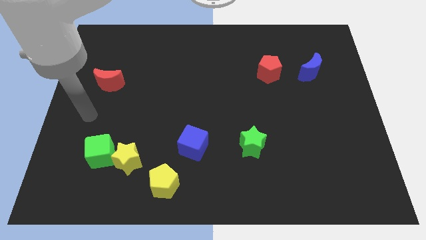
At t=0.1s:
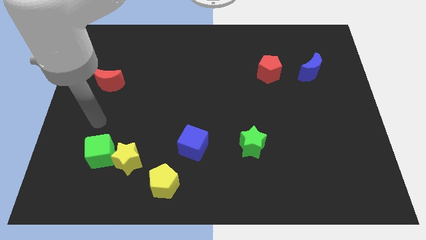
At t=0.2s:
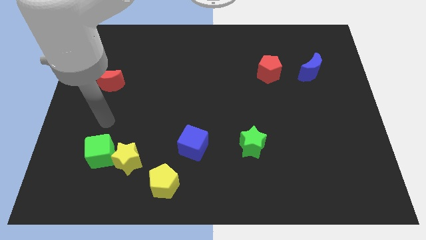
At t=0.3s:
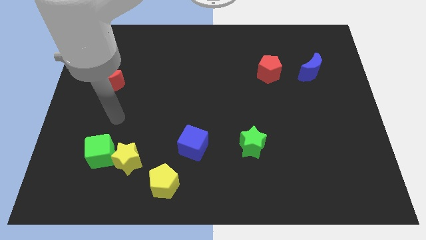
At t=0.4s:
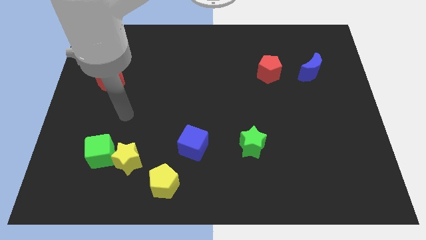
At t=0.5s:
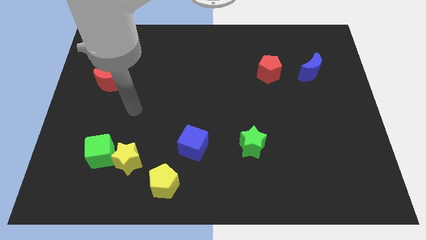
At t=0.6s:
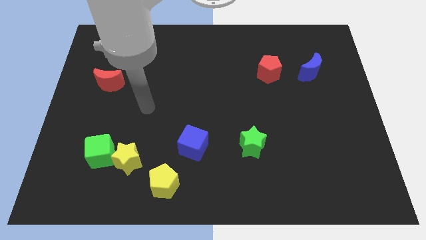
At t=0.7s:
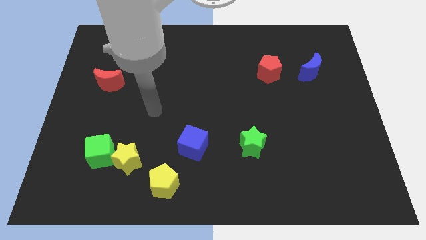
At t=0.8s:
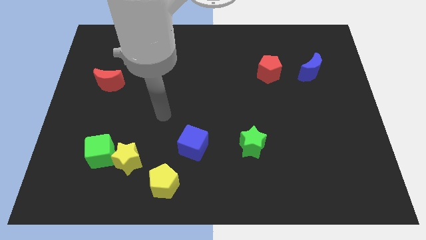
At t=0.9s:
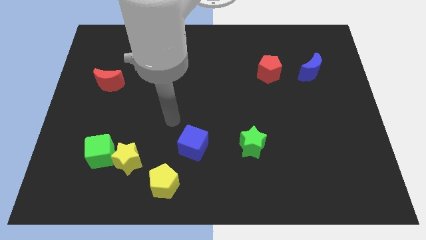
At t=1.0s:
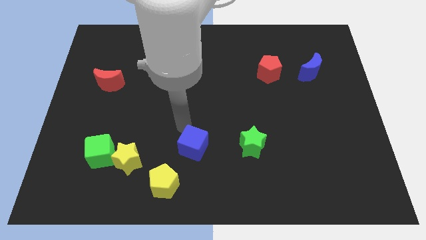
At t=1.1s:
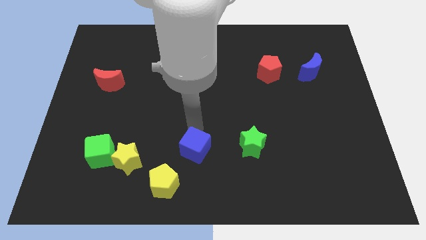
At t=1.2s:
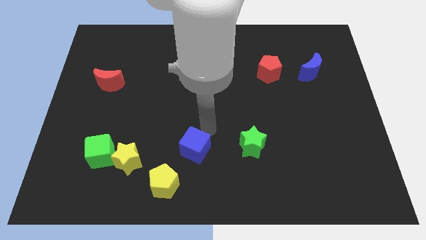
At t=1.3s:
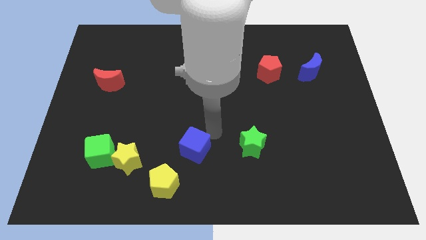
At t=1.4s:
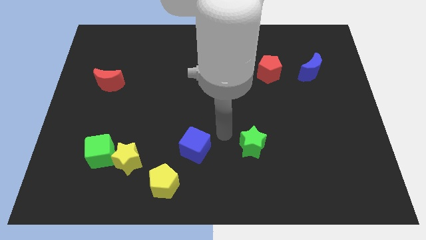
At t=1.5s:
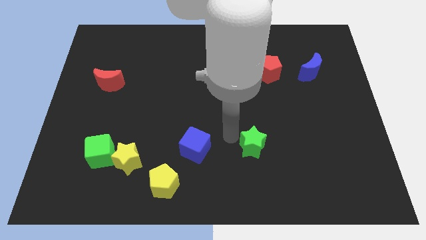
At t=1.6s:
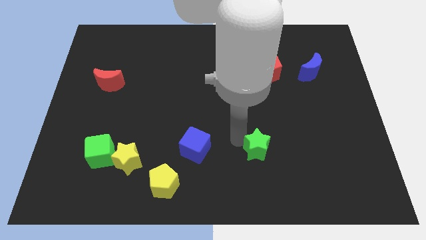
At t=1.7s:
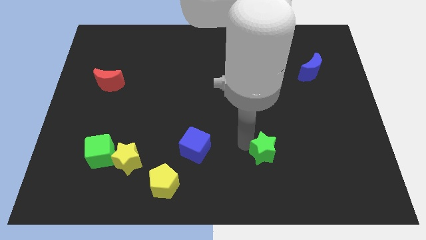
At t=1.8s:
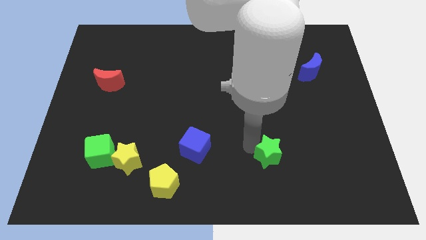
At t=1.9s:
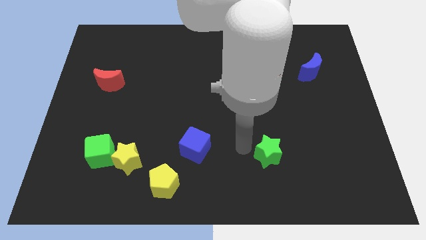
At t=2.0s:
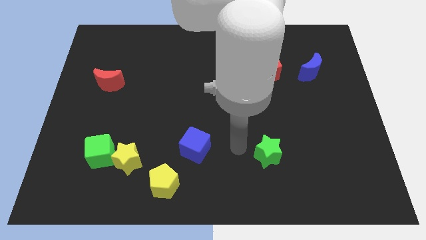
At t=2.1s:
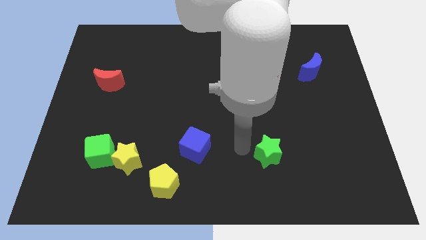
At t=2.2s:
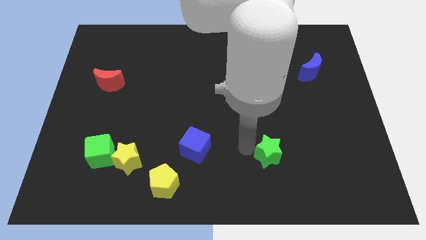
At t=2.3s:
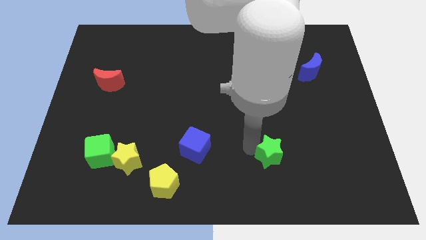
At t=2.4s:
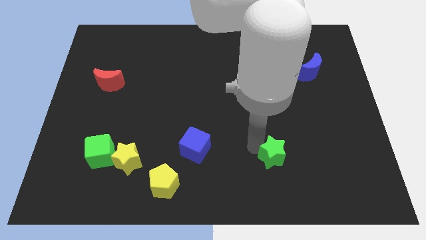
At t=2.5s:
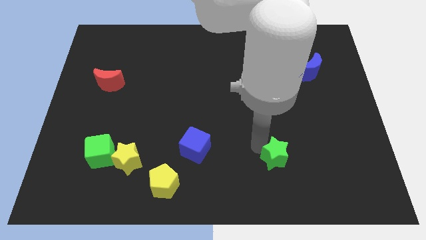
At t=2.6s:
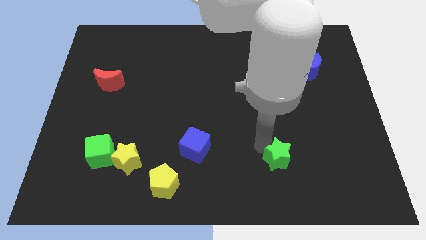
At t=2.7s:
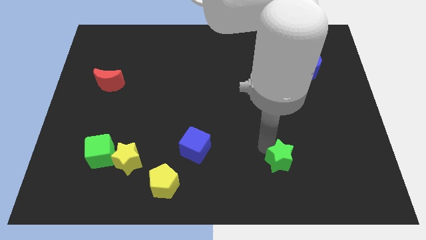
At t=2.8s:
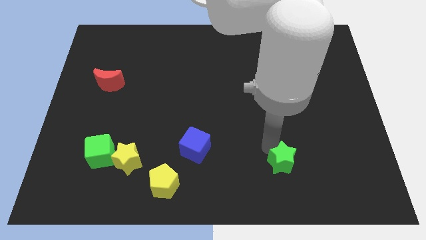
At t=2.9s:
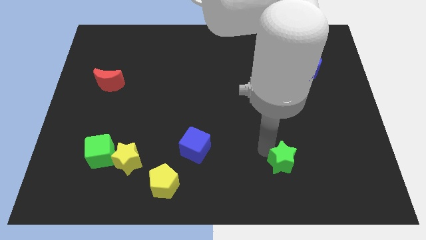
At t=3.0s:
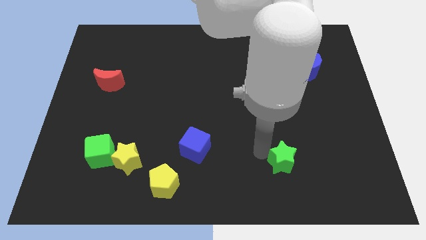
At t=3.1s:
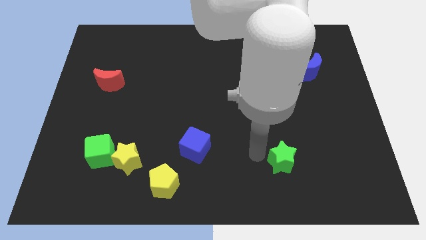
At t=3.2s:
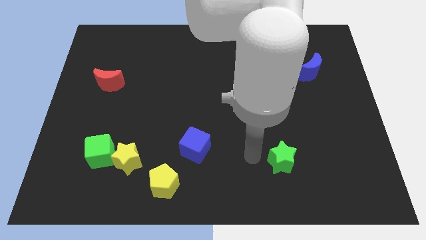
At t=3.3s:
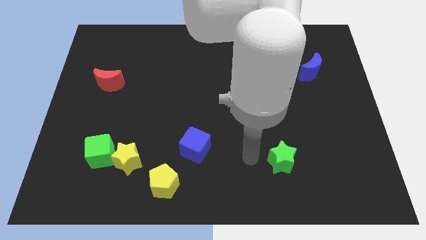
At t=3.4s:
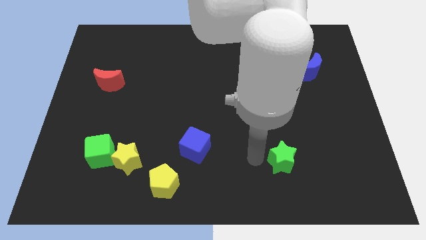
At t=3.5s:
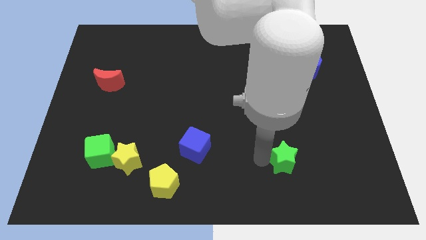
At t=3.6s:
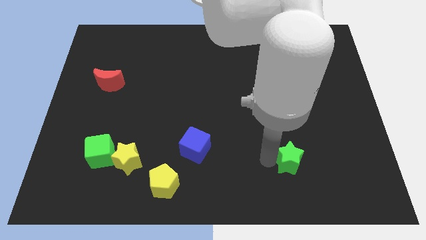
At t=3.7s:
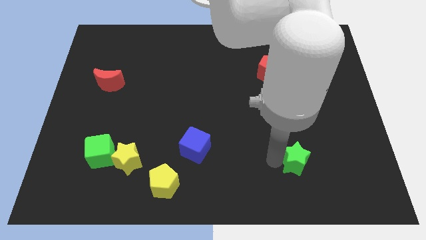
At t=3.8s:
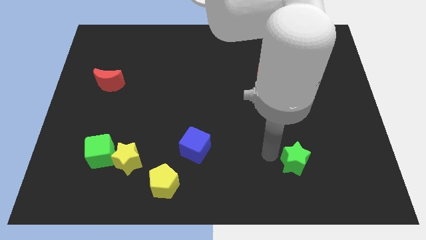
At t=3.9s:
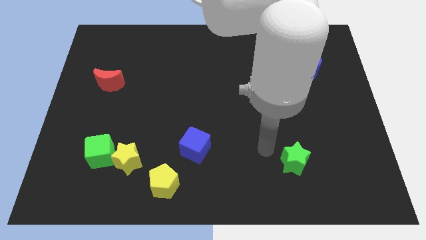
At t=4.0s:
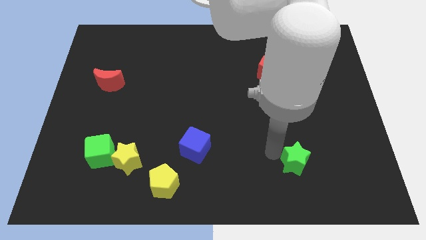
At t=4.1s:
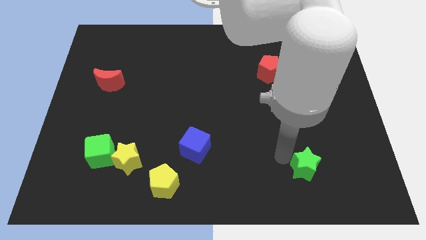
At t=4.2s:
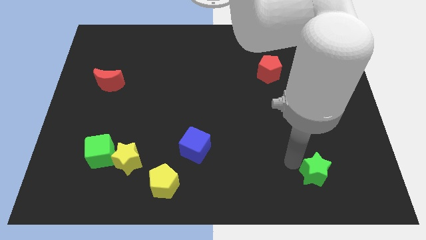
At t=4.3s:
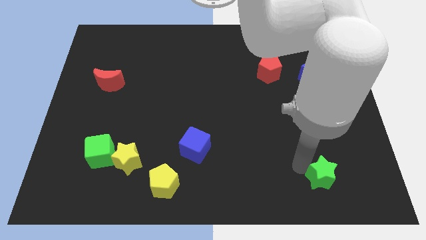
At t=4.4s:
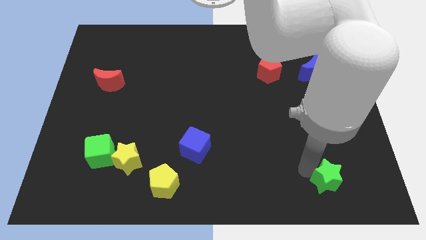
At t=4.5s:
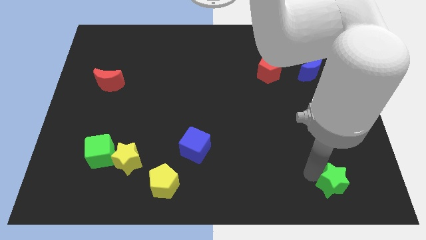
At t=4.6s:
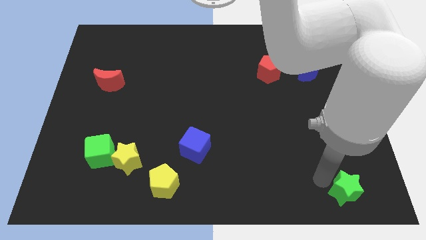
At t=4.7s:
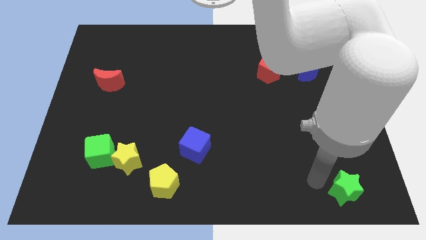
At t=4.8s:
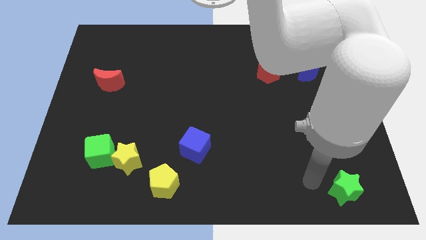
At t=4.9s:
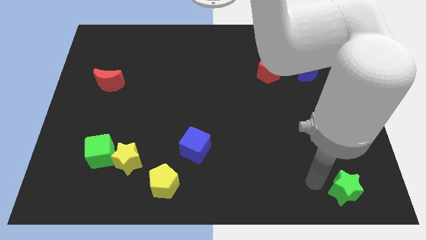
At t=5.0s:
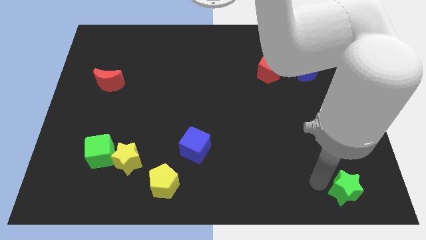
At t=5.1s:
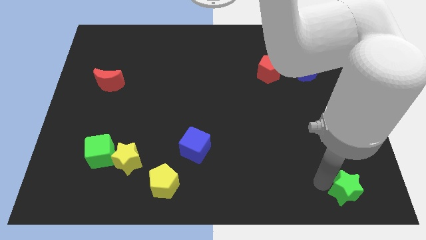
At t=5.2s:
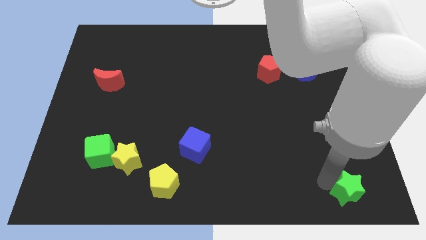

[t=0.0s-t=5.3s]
push the green star to the bottom right of the board

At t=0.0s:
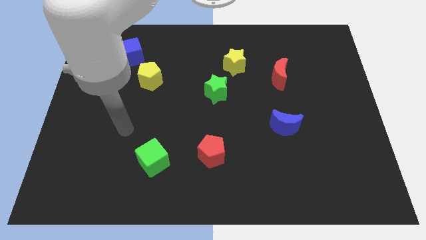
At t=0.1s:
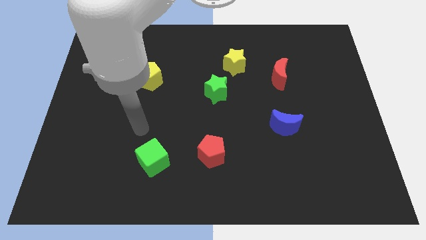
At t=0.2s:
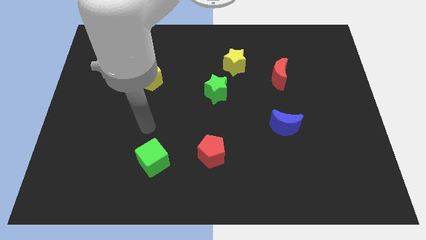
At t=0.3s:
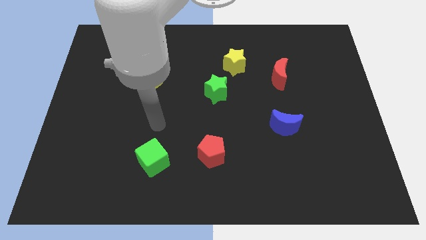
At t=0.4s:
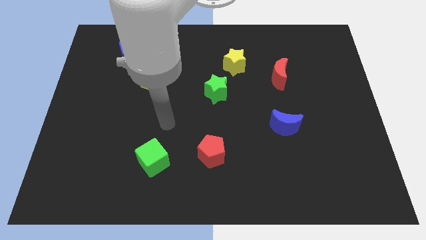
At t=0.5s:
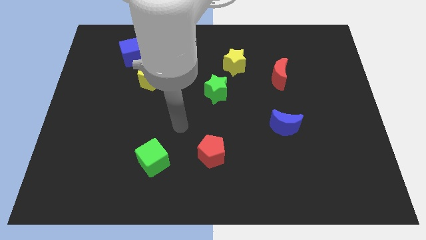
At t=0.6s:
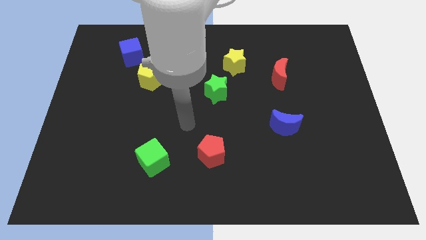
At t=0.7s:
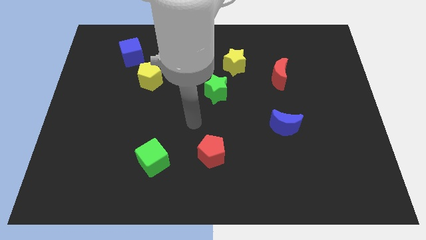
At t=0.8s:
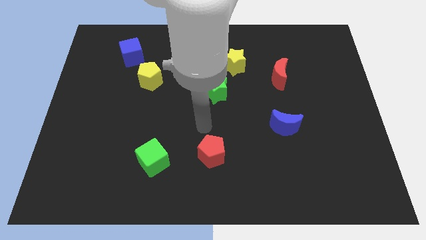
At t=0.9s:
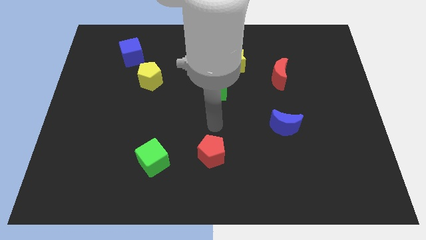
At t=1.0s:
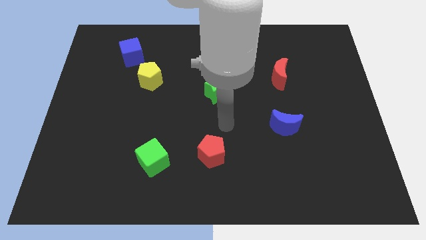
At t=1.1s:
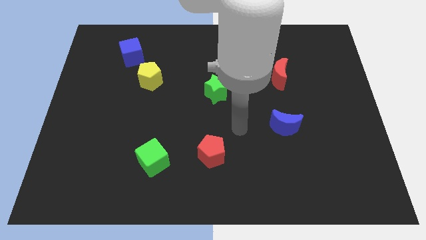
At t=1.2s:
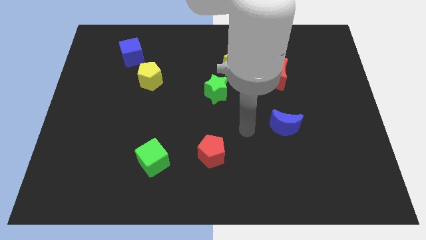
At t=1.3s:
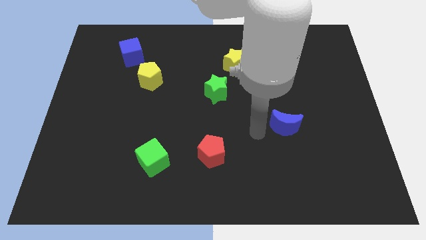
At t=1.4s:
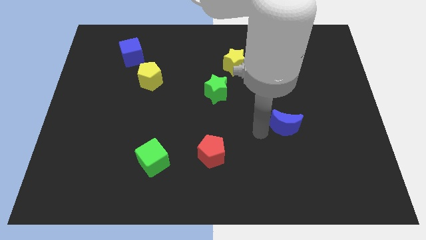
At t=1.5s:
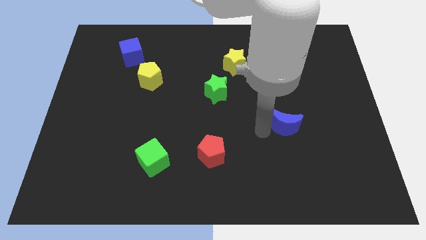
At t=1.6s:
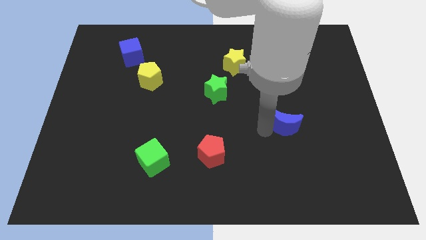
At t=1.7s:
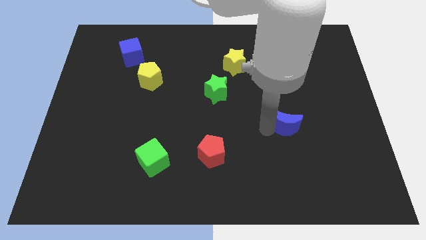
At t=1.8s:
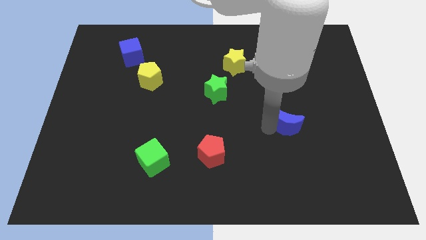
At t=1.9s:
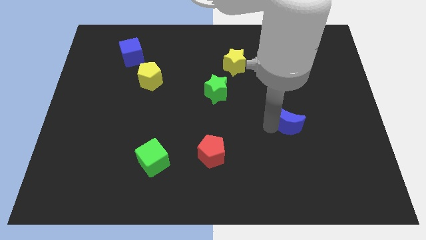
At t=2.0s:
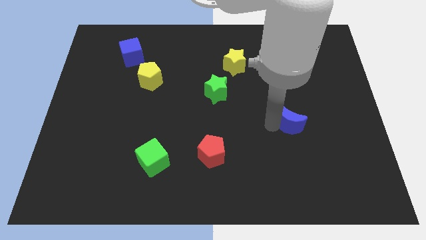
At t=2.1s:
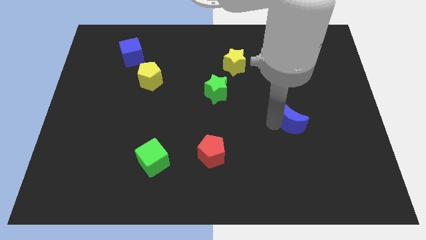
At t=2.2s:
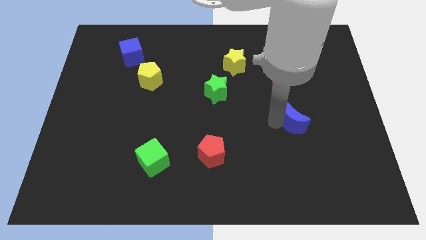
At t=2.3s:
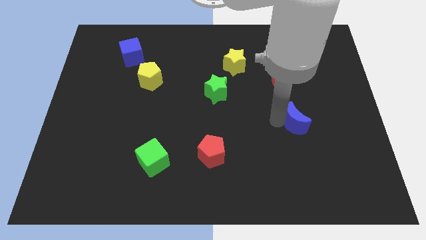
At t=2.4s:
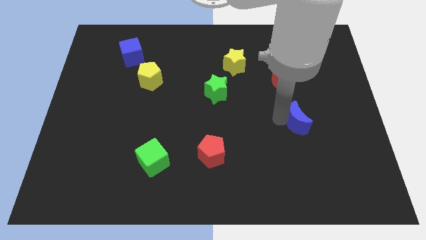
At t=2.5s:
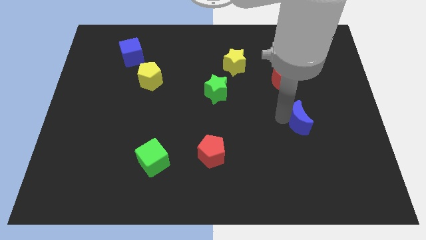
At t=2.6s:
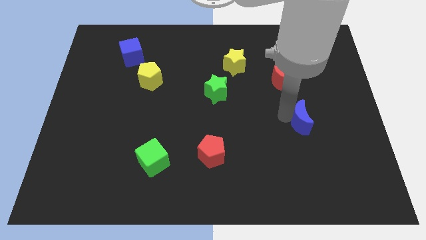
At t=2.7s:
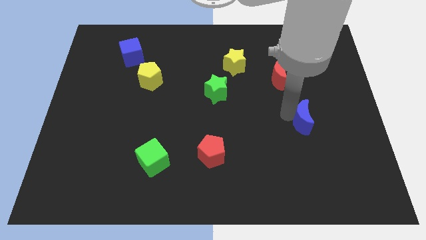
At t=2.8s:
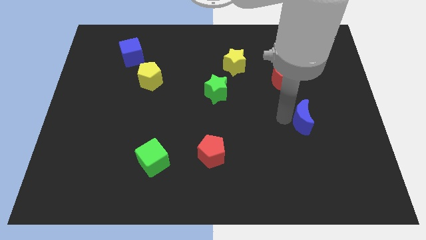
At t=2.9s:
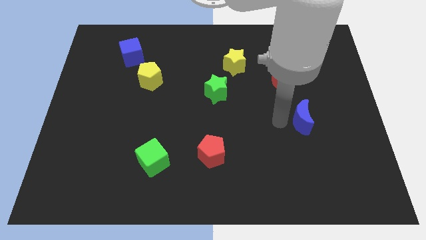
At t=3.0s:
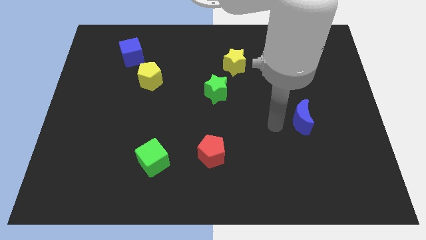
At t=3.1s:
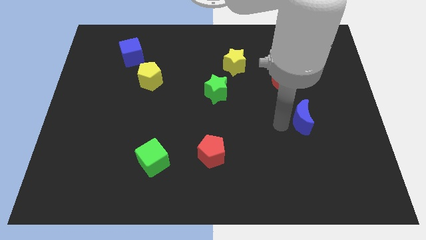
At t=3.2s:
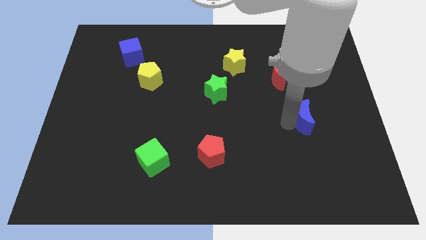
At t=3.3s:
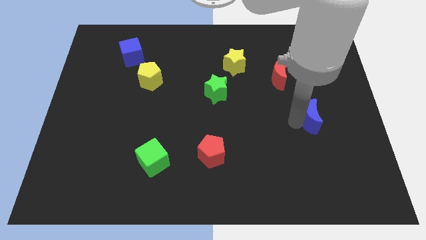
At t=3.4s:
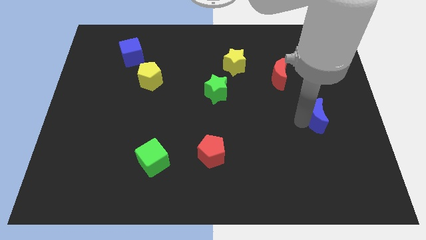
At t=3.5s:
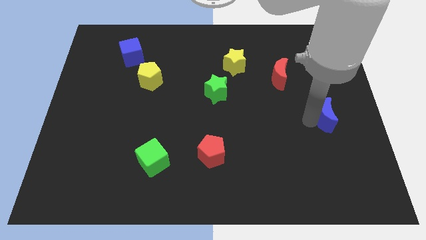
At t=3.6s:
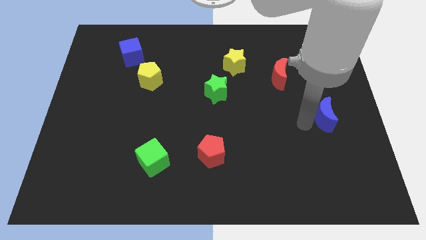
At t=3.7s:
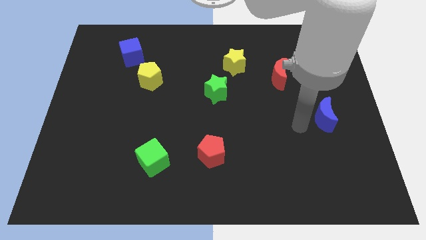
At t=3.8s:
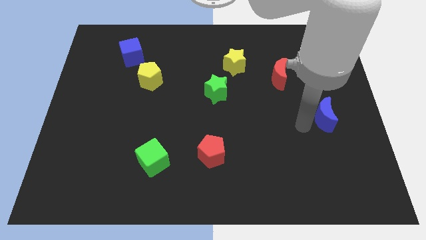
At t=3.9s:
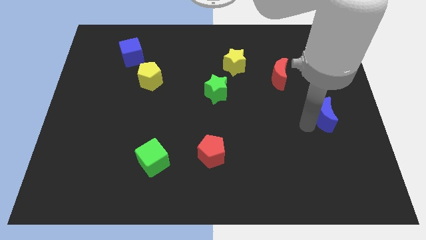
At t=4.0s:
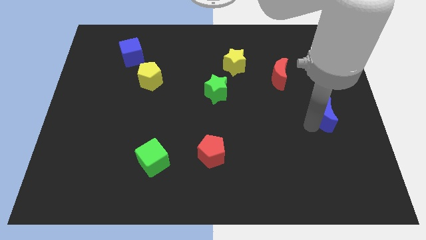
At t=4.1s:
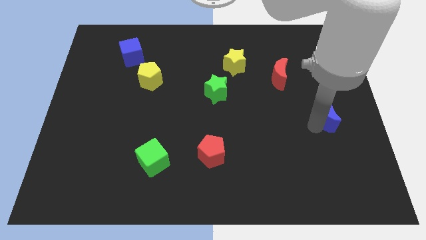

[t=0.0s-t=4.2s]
move the blue moon to the right side
